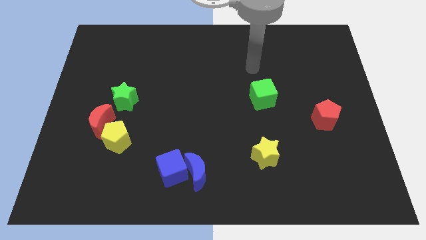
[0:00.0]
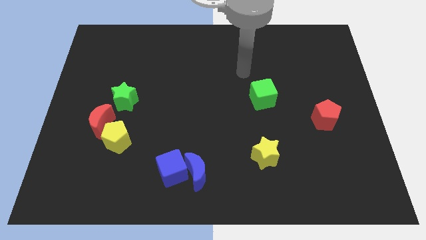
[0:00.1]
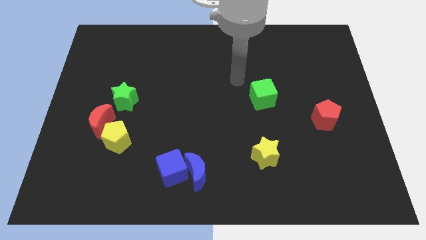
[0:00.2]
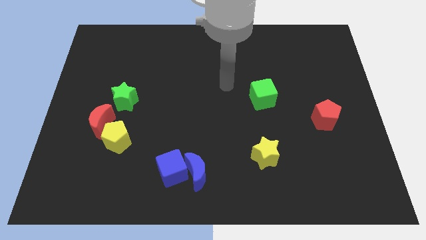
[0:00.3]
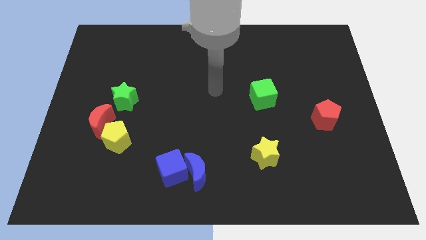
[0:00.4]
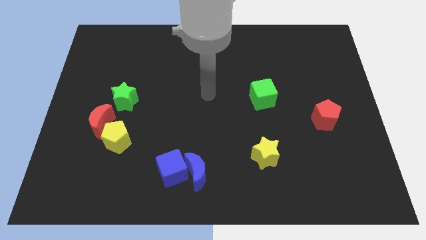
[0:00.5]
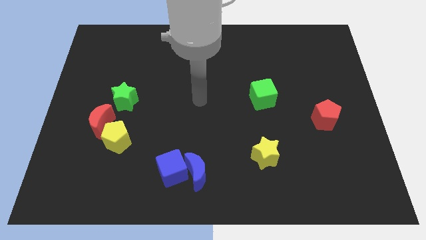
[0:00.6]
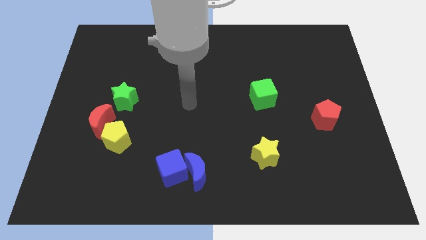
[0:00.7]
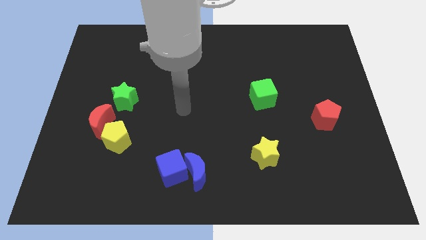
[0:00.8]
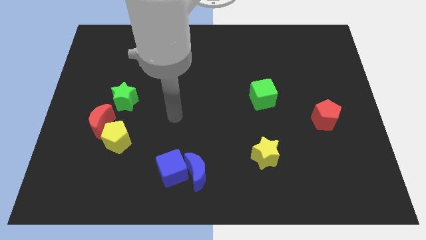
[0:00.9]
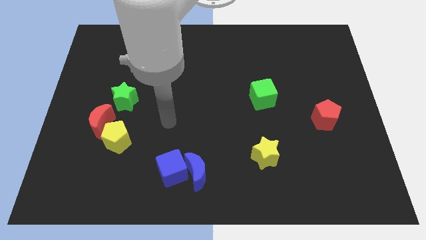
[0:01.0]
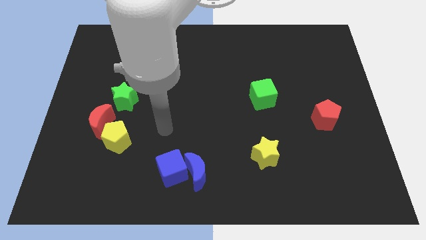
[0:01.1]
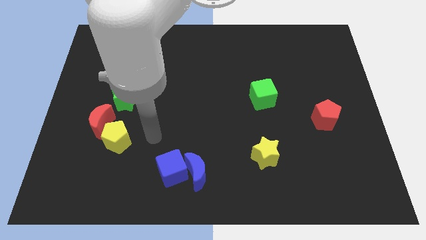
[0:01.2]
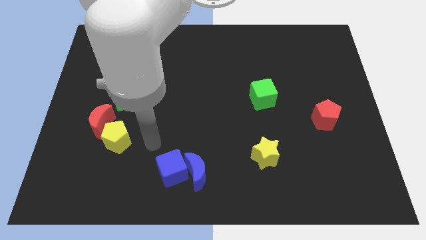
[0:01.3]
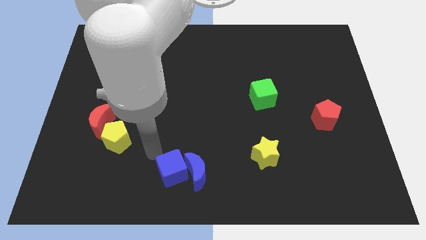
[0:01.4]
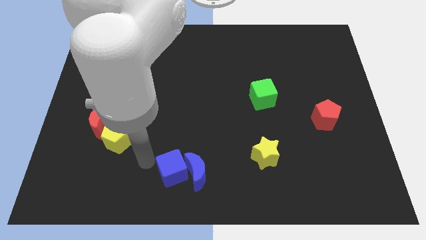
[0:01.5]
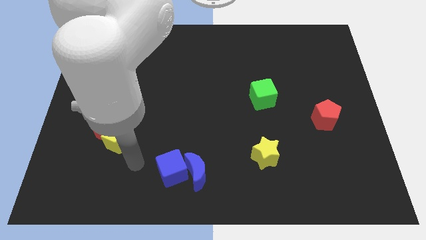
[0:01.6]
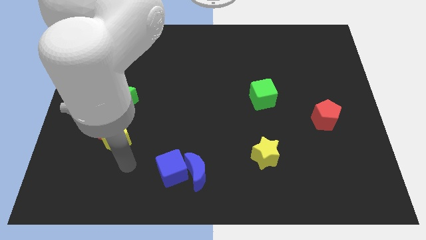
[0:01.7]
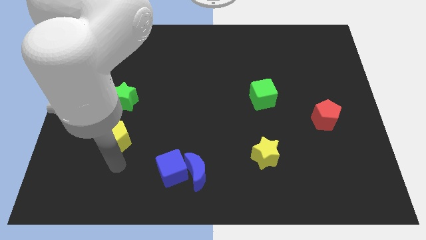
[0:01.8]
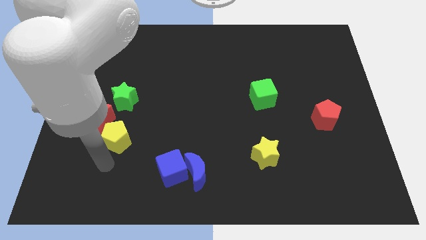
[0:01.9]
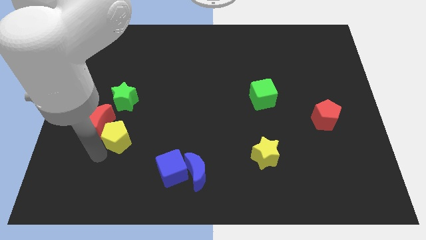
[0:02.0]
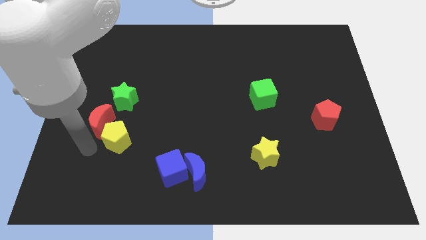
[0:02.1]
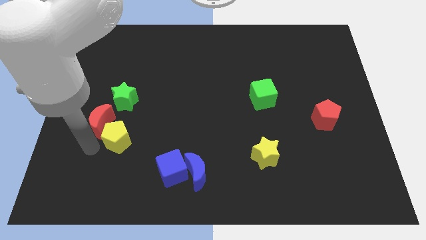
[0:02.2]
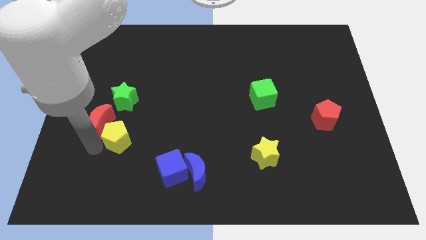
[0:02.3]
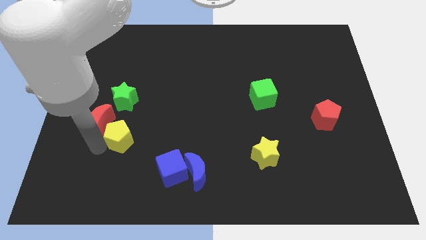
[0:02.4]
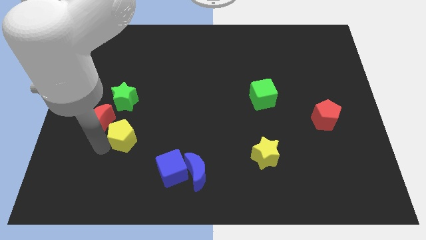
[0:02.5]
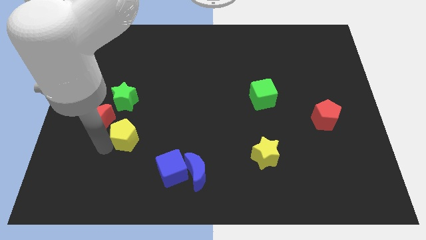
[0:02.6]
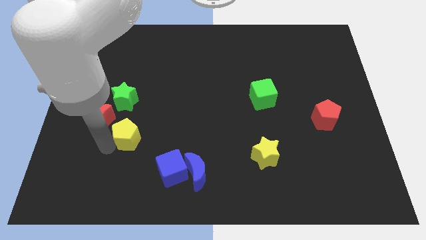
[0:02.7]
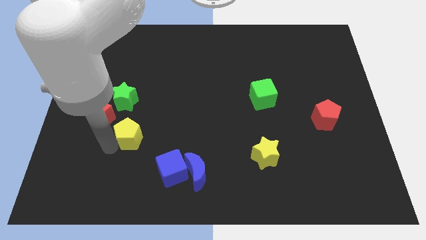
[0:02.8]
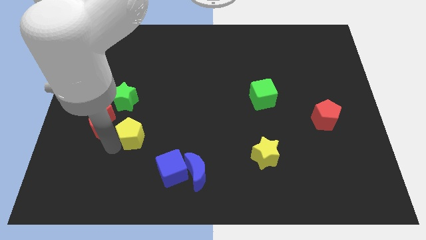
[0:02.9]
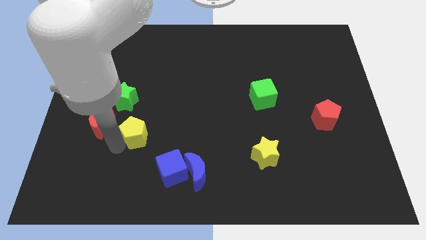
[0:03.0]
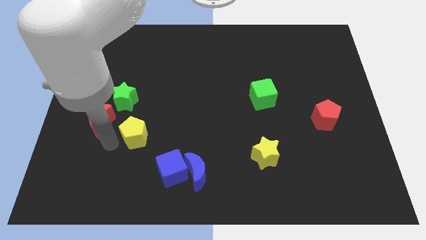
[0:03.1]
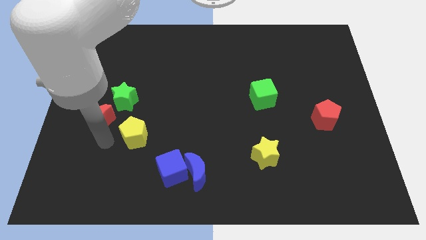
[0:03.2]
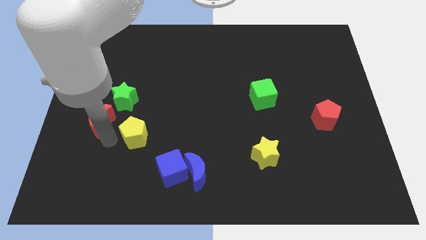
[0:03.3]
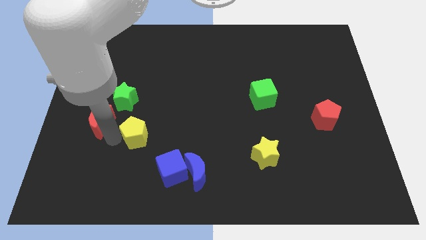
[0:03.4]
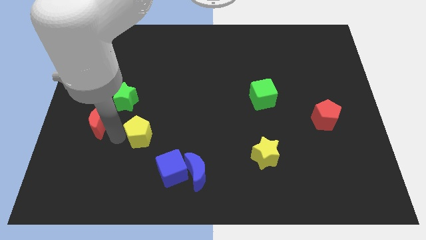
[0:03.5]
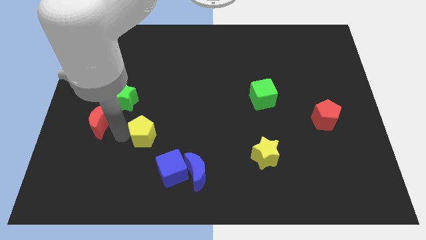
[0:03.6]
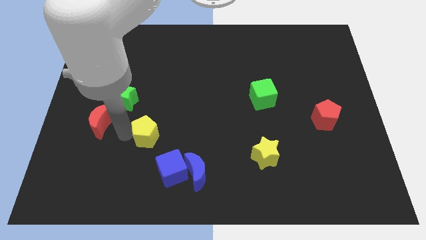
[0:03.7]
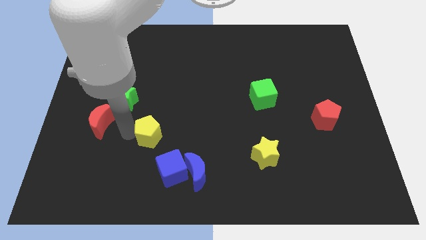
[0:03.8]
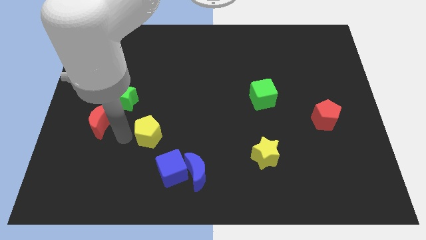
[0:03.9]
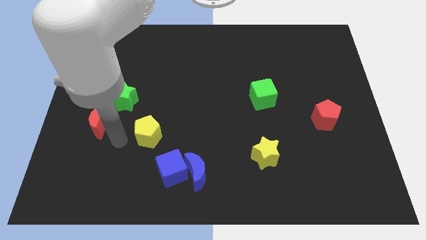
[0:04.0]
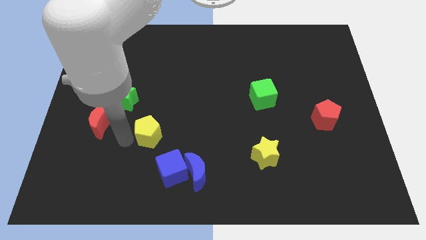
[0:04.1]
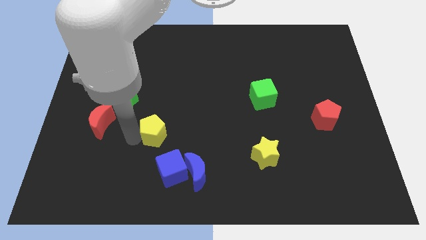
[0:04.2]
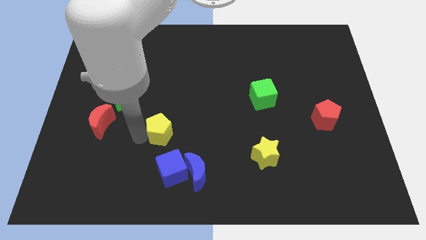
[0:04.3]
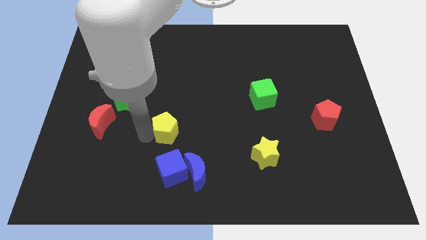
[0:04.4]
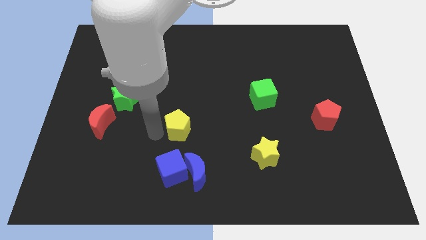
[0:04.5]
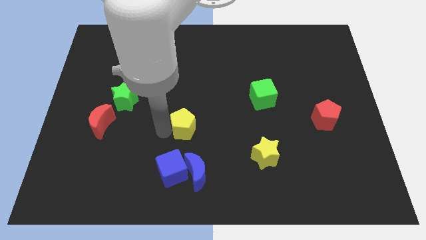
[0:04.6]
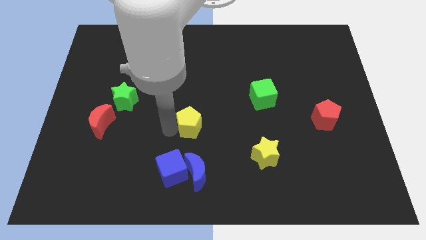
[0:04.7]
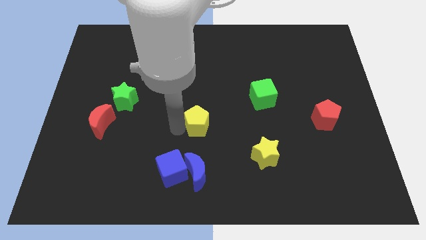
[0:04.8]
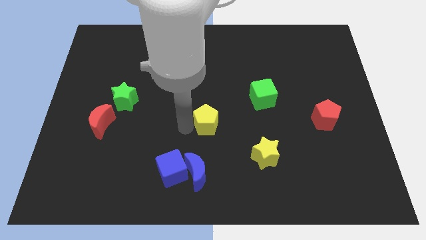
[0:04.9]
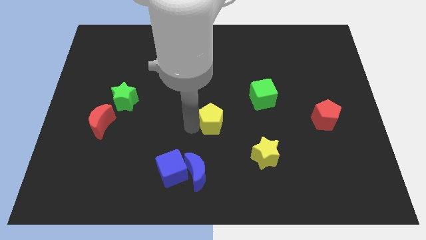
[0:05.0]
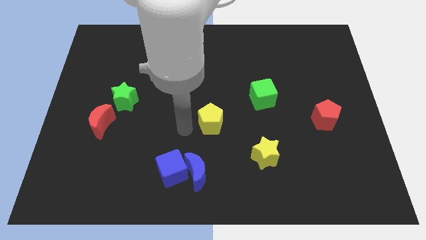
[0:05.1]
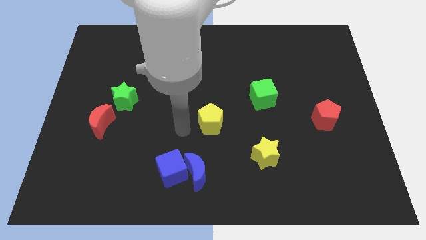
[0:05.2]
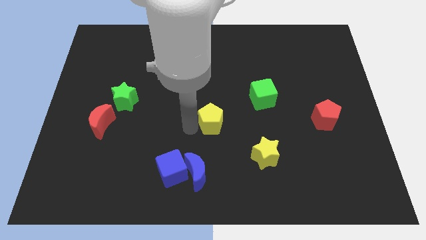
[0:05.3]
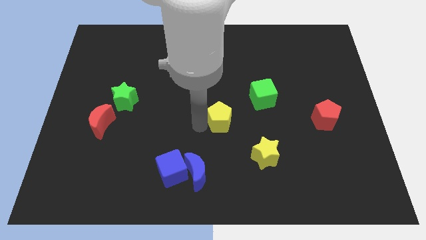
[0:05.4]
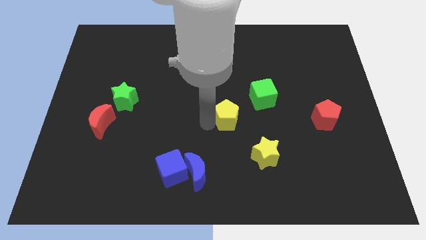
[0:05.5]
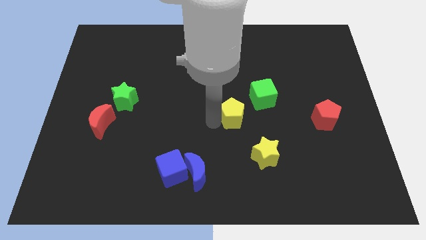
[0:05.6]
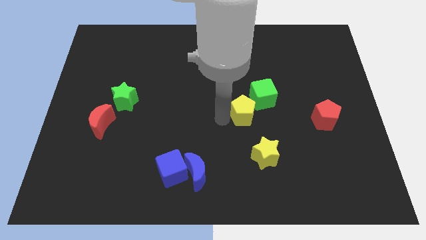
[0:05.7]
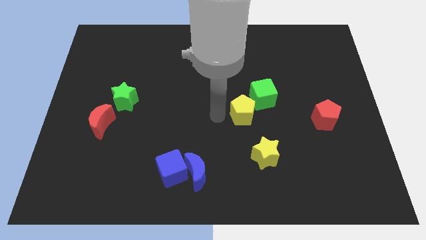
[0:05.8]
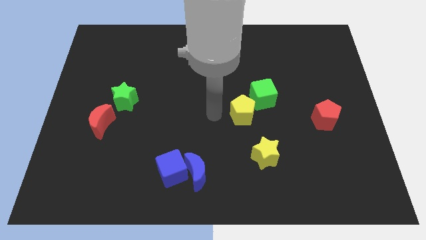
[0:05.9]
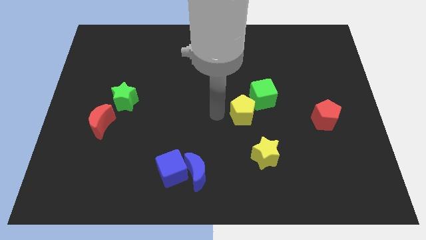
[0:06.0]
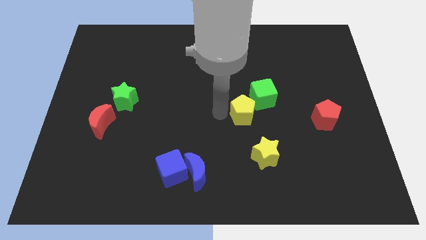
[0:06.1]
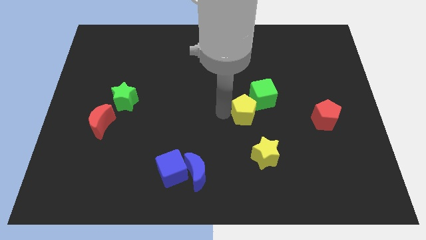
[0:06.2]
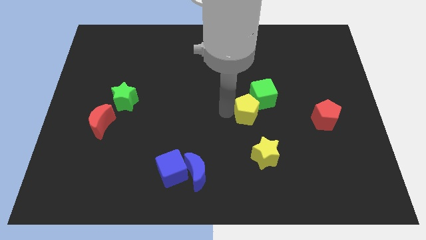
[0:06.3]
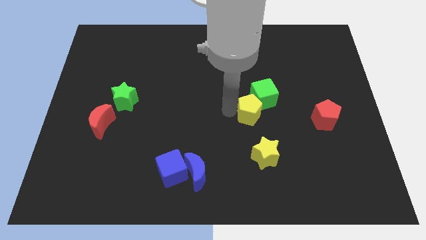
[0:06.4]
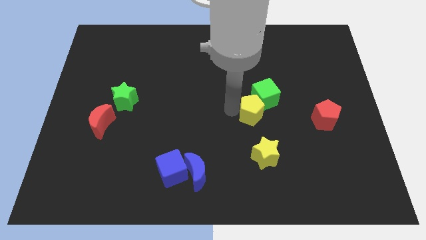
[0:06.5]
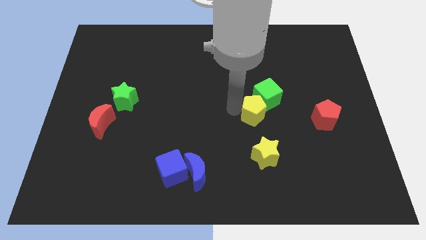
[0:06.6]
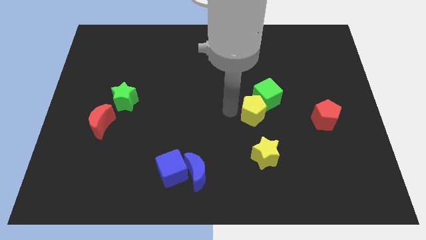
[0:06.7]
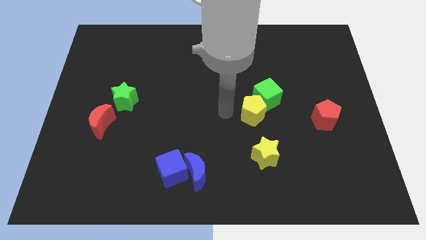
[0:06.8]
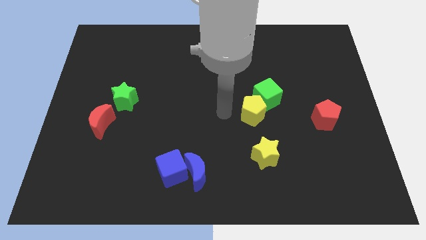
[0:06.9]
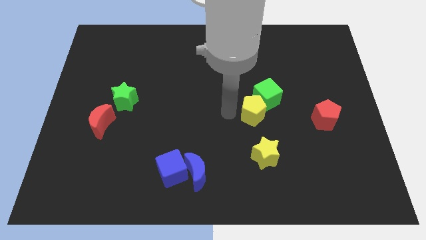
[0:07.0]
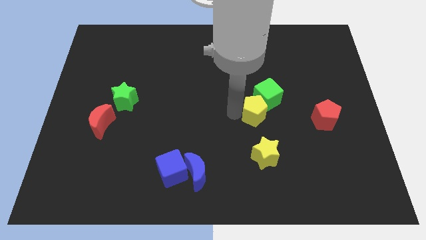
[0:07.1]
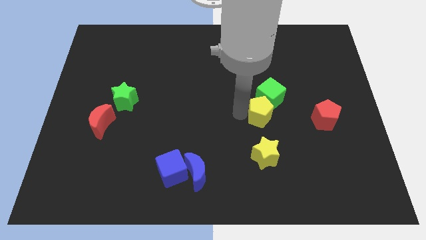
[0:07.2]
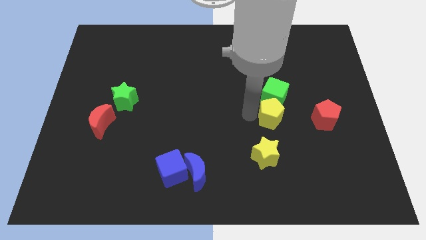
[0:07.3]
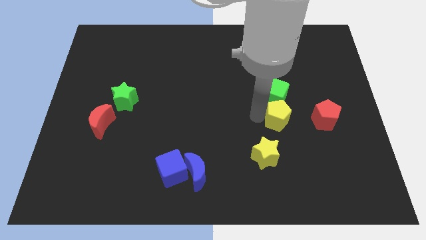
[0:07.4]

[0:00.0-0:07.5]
move the yellow pentagon to the bottom right of the green cube
